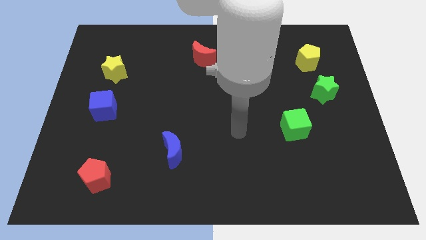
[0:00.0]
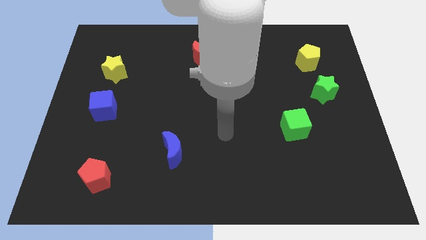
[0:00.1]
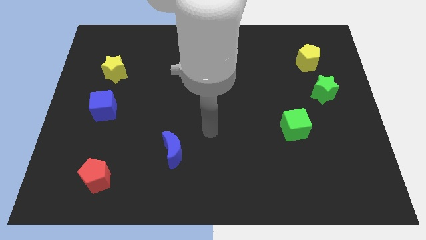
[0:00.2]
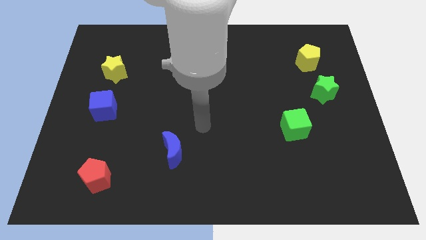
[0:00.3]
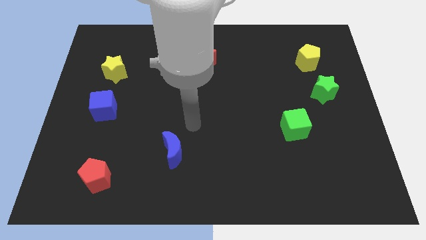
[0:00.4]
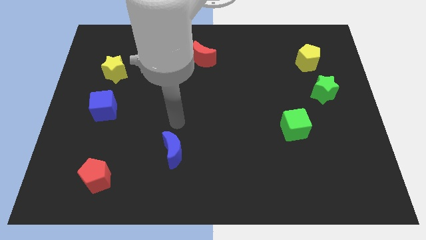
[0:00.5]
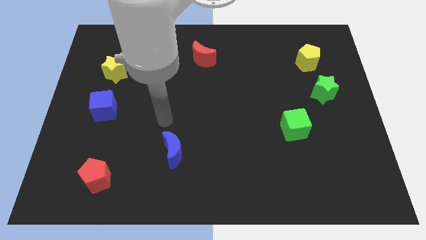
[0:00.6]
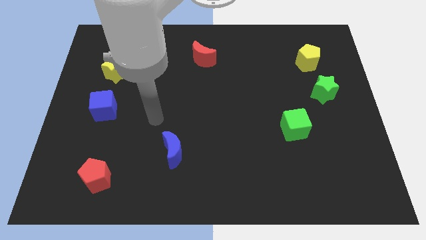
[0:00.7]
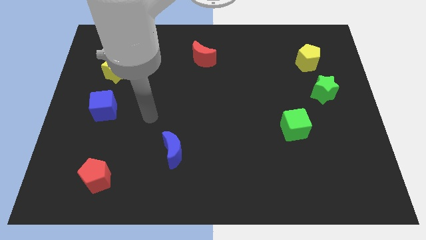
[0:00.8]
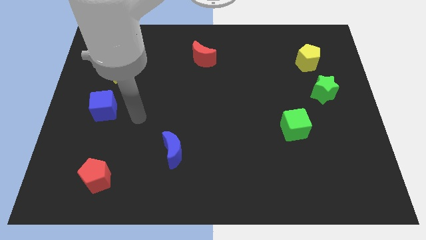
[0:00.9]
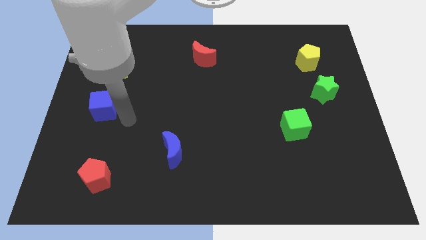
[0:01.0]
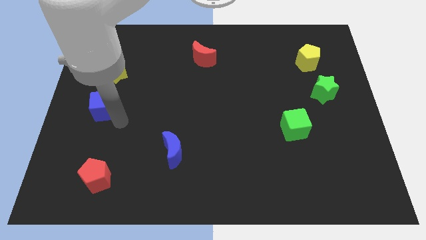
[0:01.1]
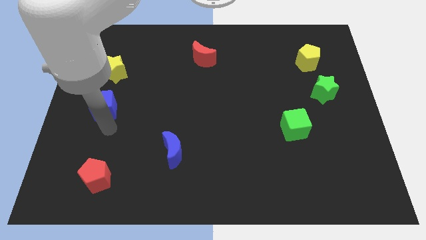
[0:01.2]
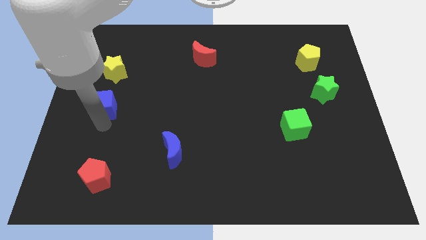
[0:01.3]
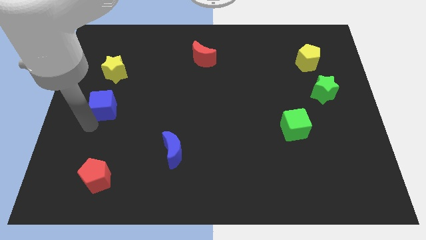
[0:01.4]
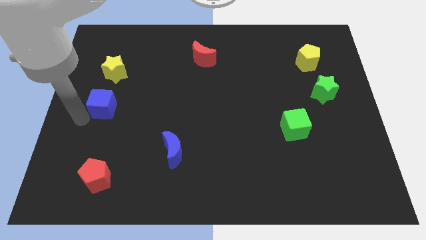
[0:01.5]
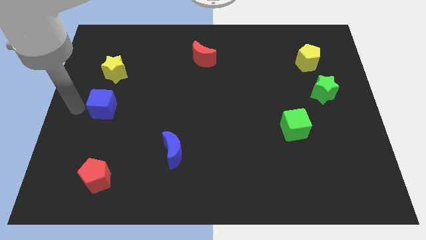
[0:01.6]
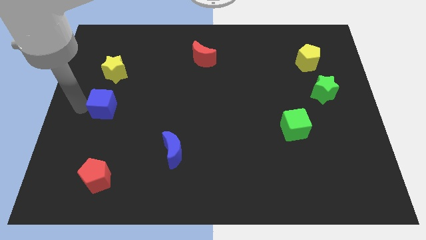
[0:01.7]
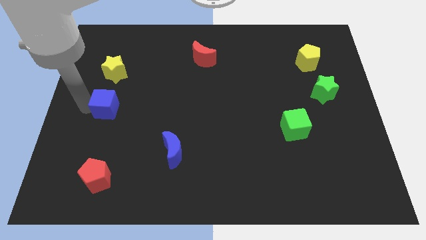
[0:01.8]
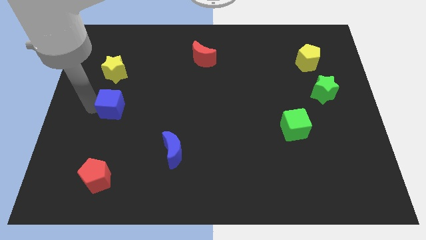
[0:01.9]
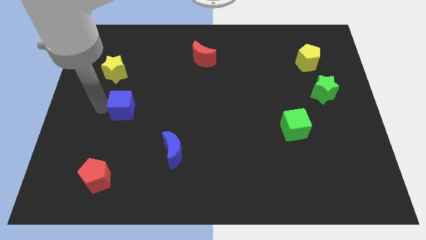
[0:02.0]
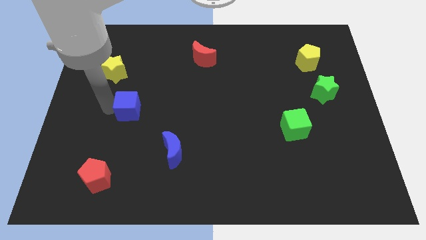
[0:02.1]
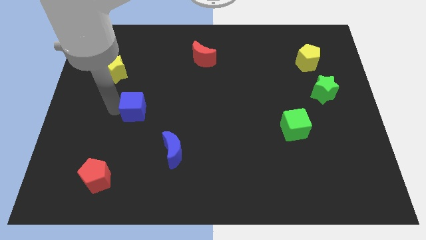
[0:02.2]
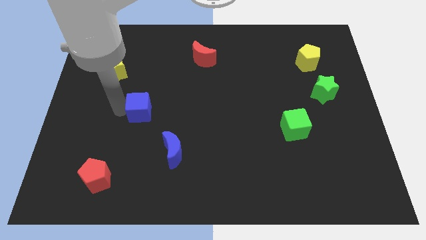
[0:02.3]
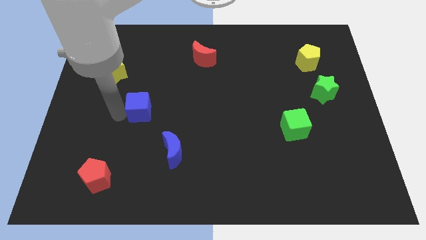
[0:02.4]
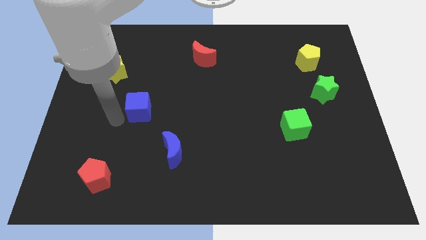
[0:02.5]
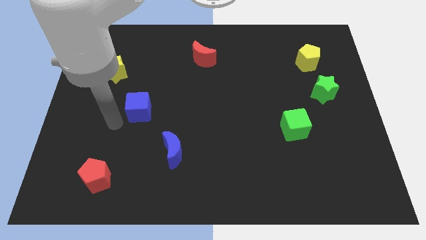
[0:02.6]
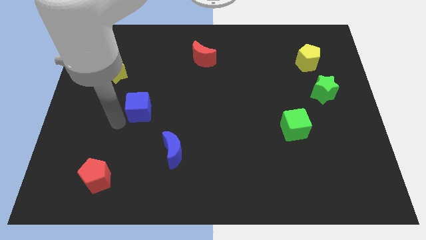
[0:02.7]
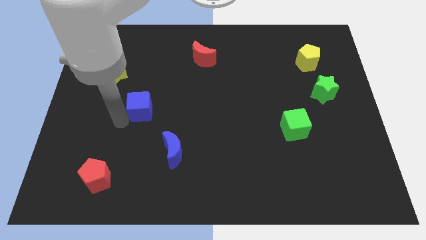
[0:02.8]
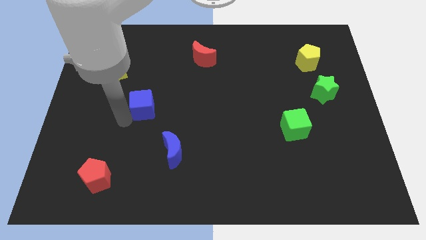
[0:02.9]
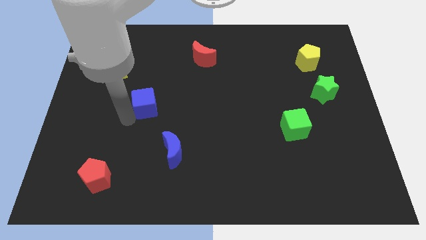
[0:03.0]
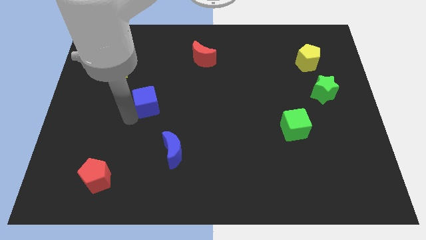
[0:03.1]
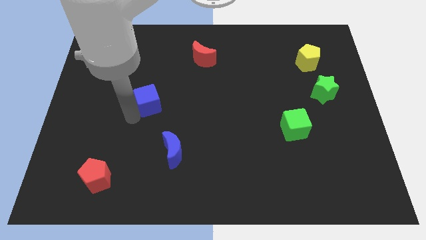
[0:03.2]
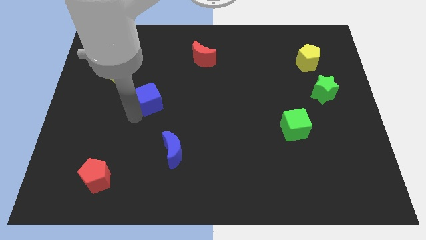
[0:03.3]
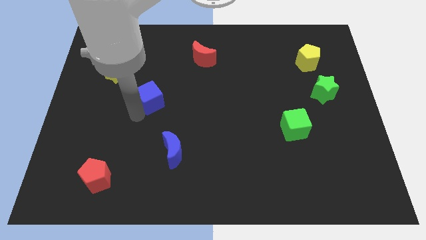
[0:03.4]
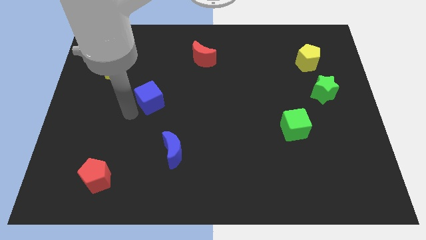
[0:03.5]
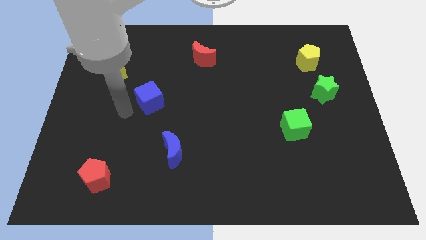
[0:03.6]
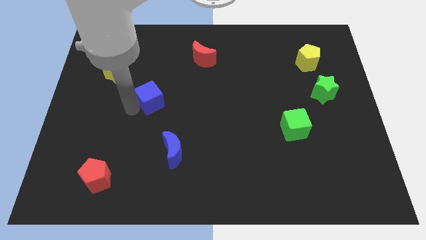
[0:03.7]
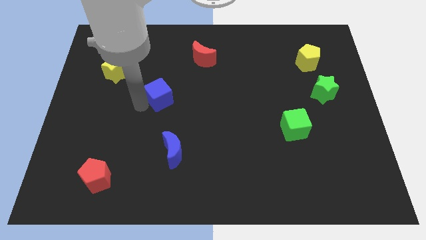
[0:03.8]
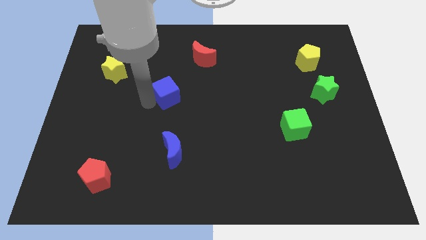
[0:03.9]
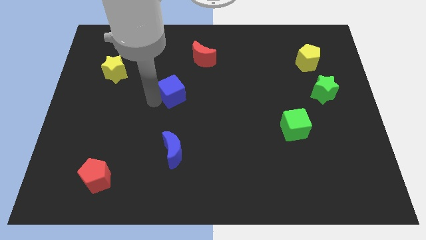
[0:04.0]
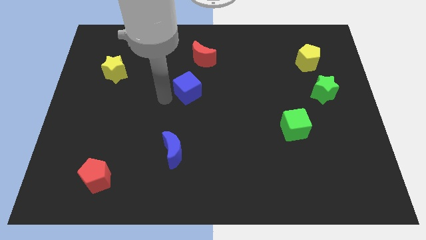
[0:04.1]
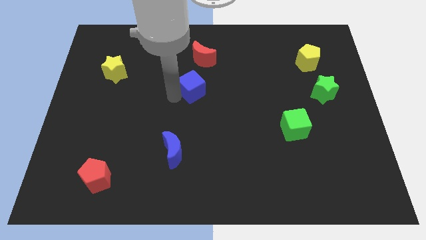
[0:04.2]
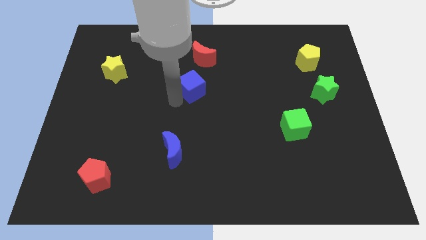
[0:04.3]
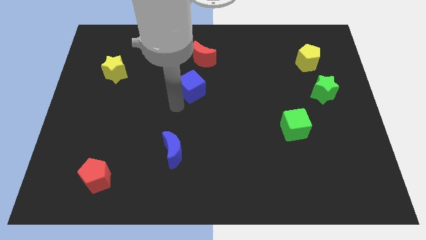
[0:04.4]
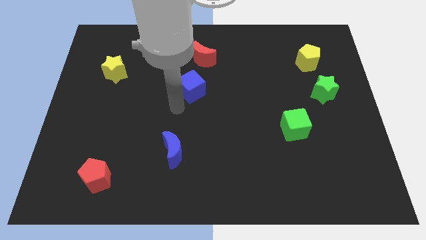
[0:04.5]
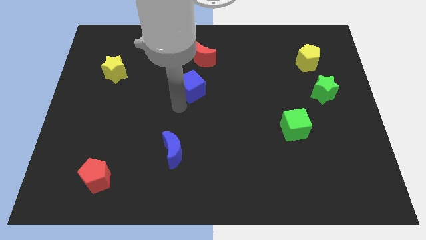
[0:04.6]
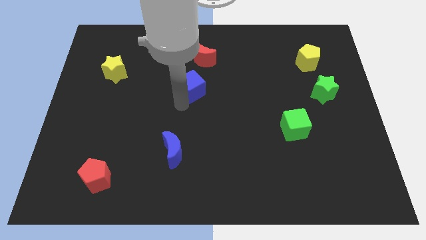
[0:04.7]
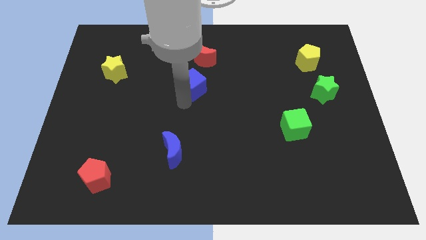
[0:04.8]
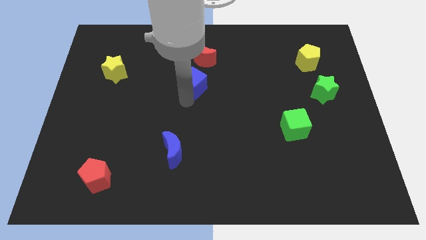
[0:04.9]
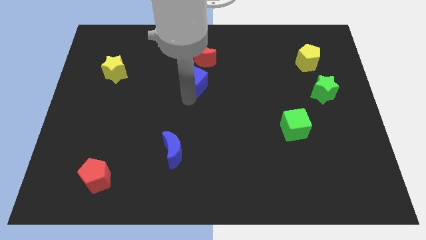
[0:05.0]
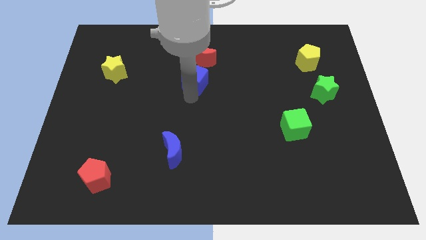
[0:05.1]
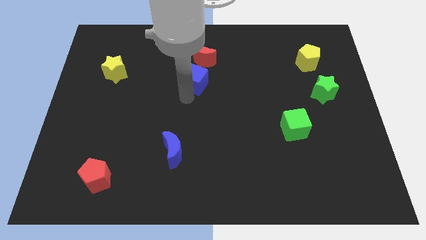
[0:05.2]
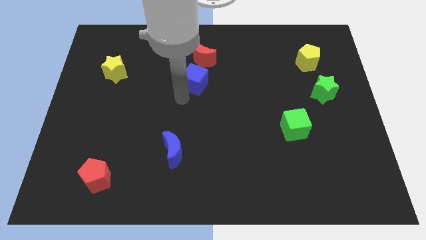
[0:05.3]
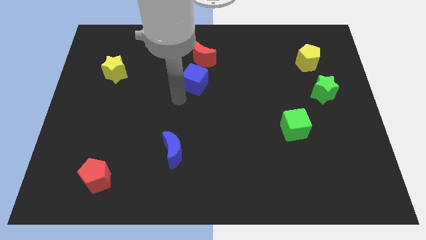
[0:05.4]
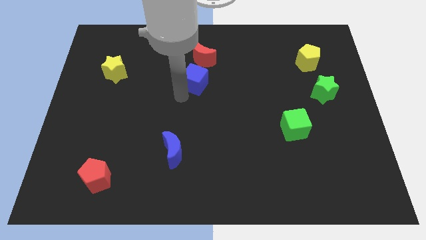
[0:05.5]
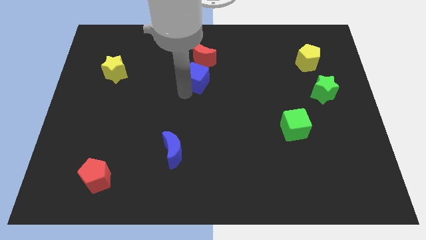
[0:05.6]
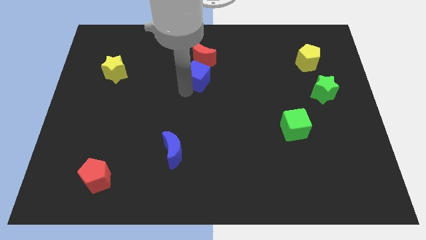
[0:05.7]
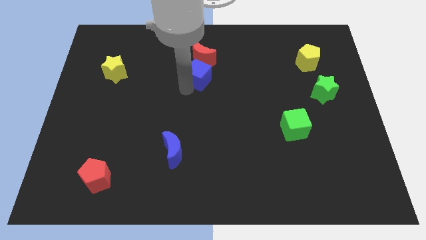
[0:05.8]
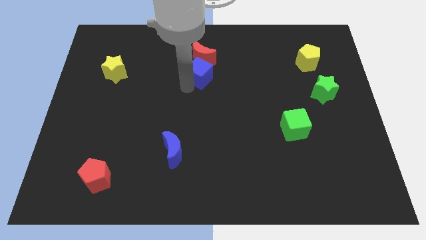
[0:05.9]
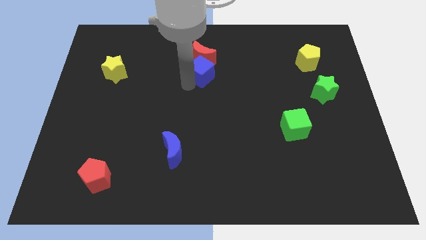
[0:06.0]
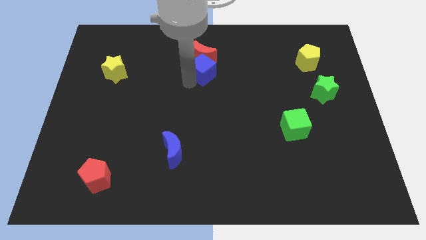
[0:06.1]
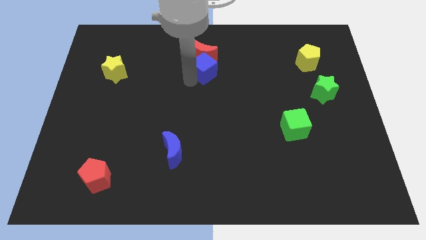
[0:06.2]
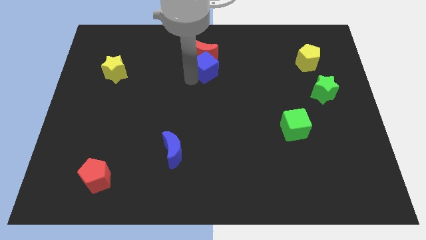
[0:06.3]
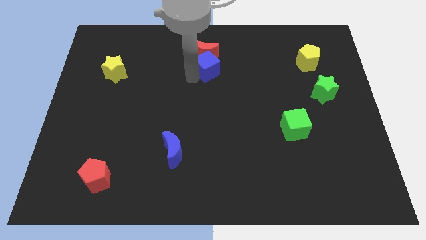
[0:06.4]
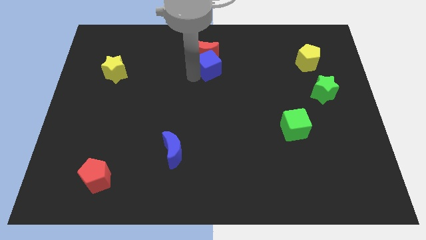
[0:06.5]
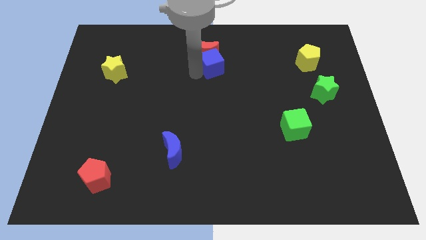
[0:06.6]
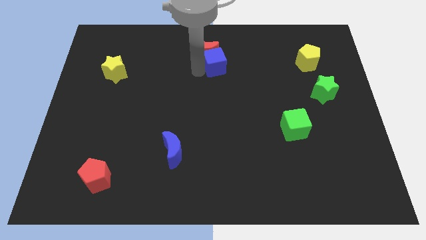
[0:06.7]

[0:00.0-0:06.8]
put the blue cube to the right side of the red moon
